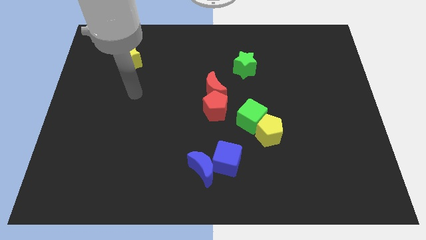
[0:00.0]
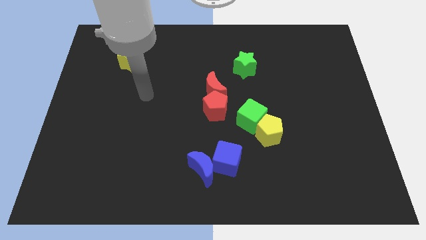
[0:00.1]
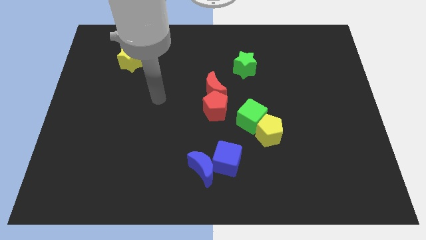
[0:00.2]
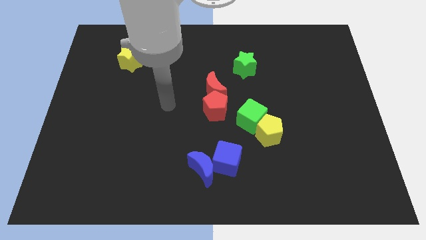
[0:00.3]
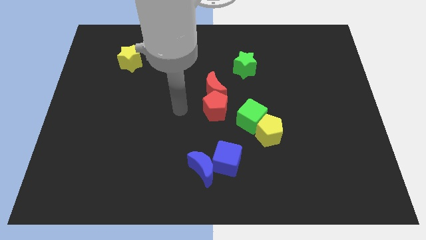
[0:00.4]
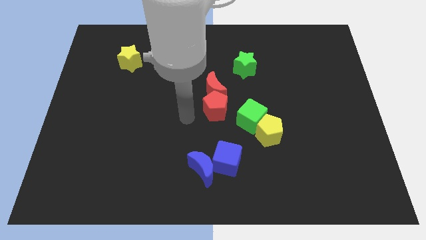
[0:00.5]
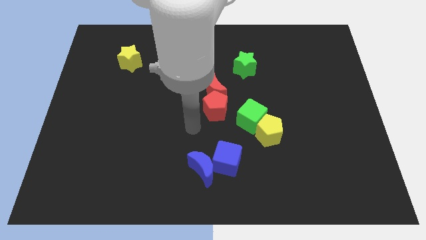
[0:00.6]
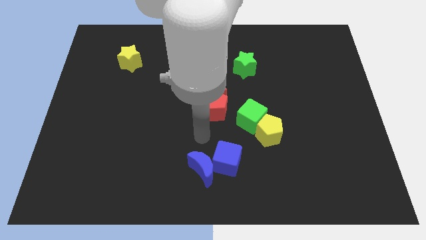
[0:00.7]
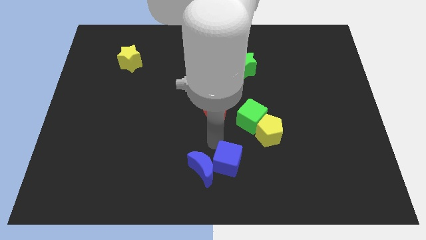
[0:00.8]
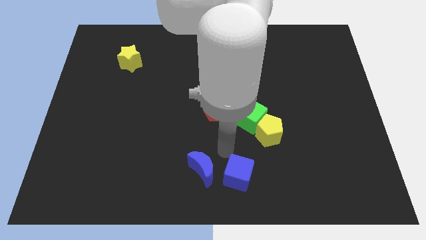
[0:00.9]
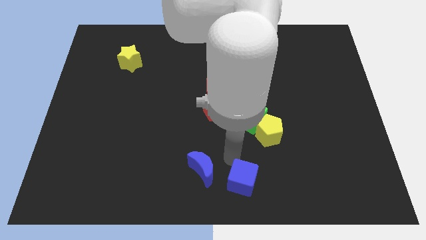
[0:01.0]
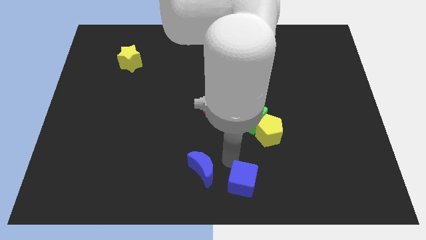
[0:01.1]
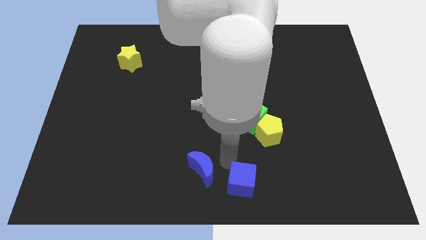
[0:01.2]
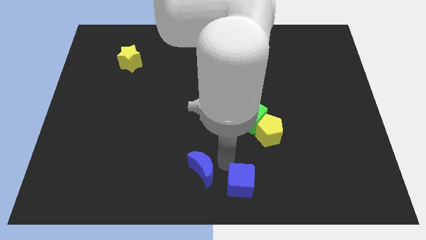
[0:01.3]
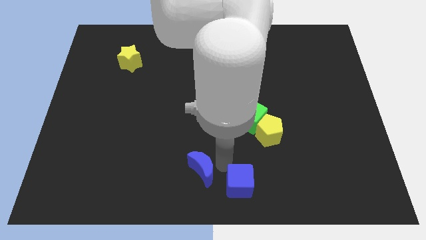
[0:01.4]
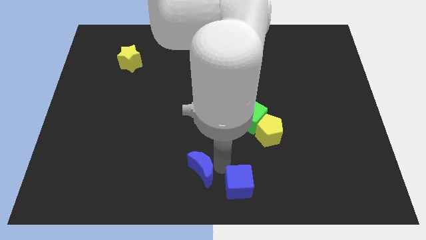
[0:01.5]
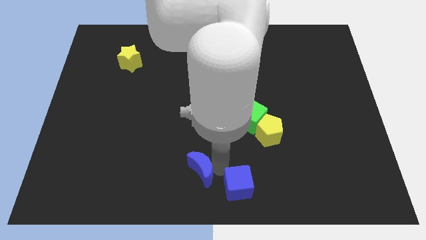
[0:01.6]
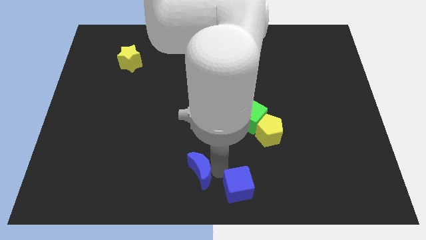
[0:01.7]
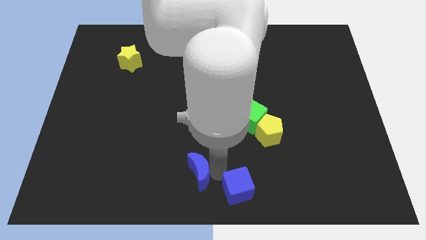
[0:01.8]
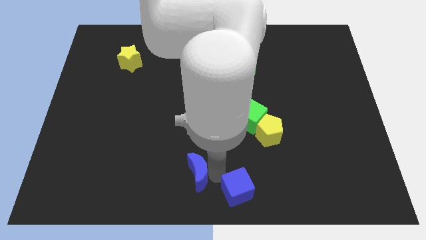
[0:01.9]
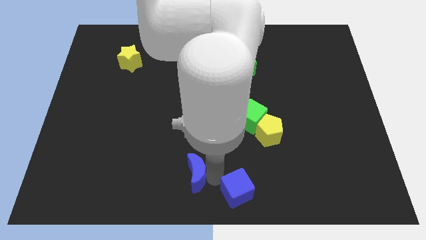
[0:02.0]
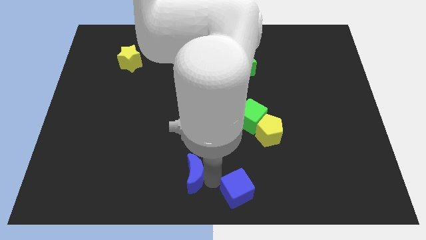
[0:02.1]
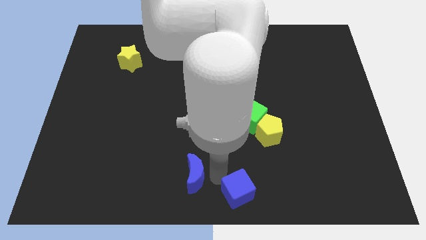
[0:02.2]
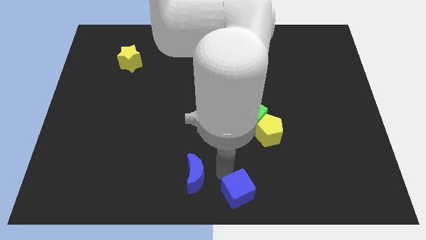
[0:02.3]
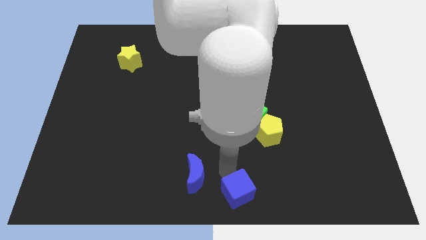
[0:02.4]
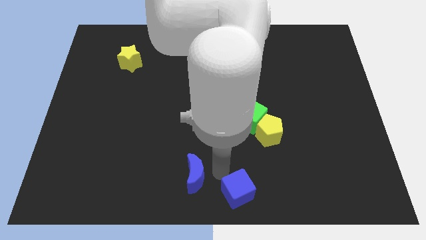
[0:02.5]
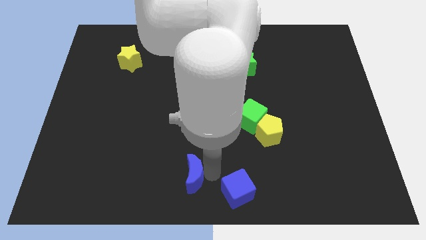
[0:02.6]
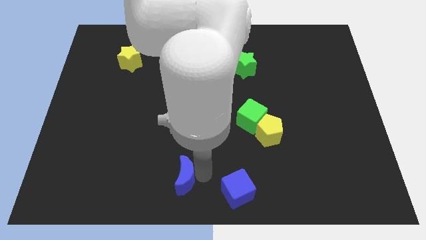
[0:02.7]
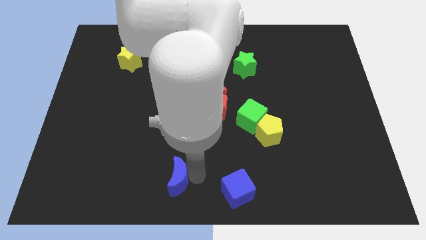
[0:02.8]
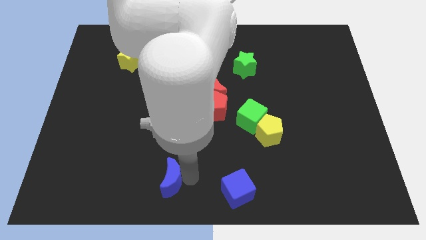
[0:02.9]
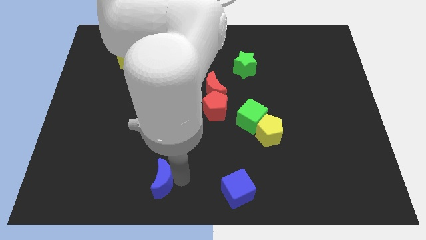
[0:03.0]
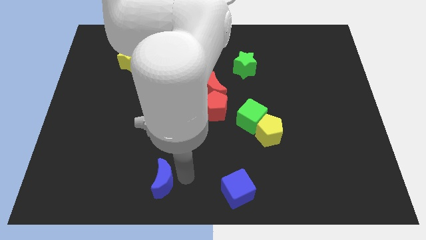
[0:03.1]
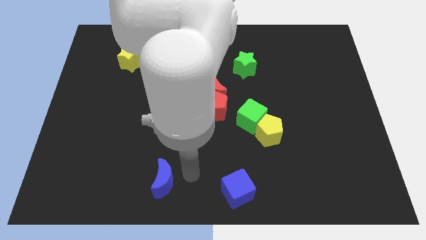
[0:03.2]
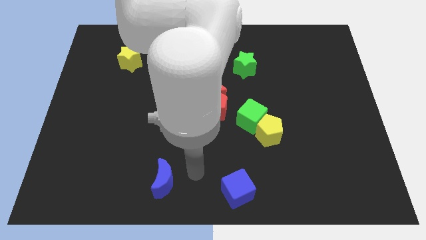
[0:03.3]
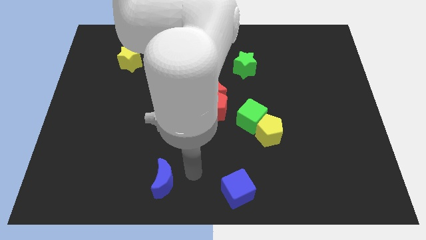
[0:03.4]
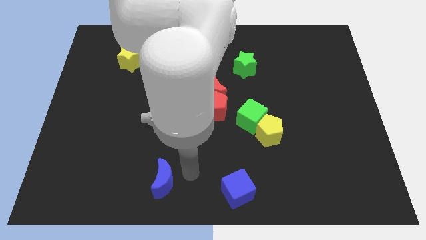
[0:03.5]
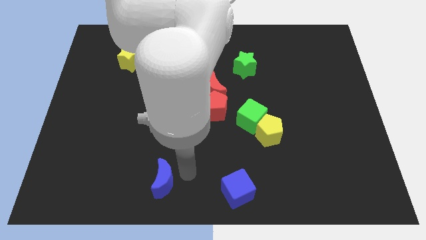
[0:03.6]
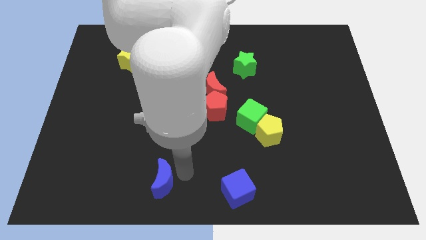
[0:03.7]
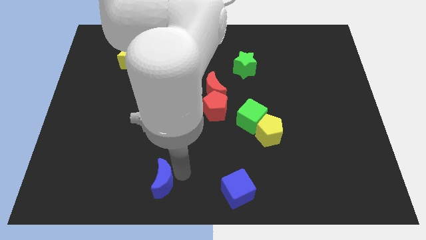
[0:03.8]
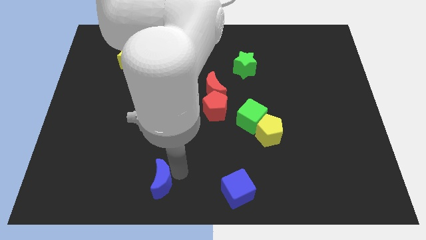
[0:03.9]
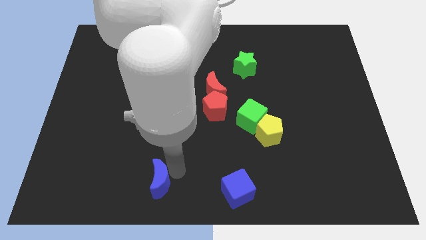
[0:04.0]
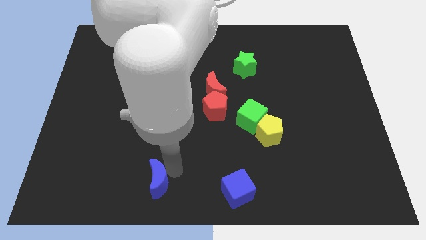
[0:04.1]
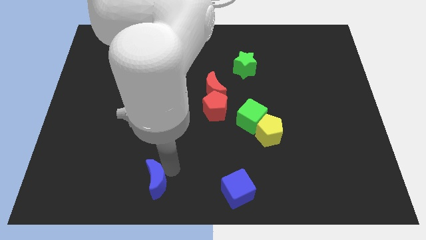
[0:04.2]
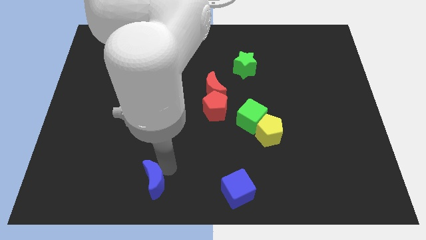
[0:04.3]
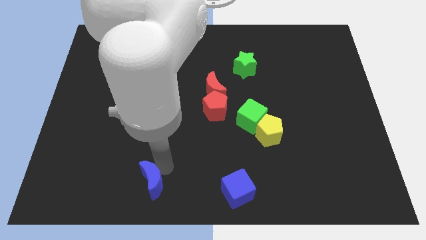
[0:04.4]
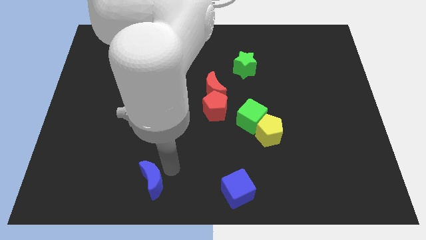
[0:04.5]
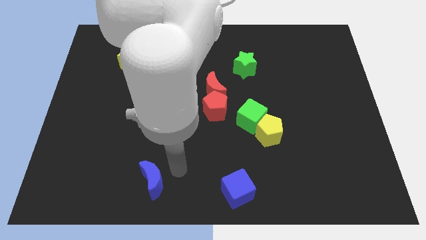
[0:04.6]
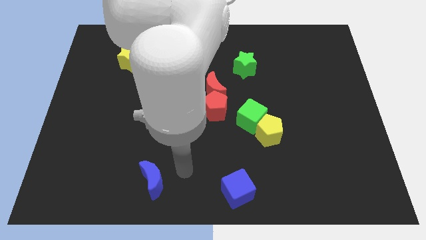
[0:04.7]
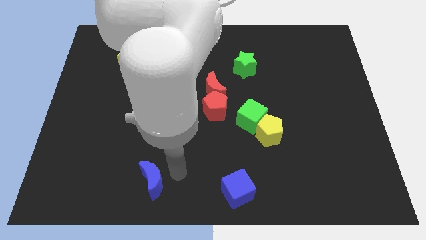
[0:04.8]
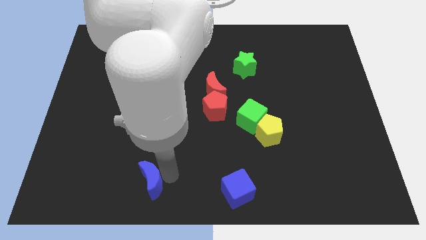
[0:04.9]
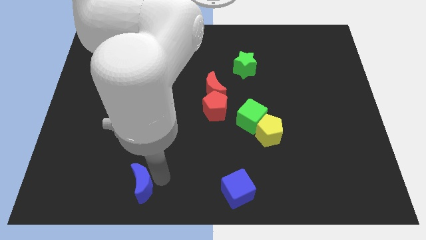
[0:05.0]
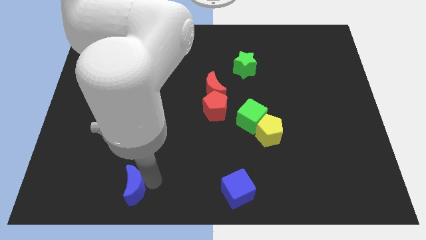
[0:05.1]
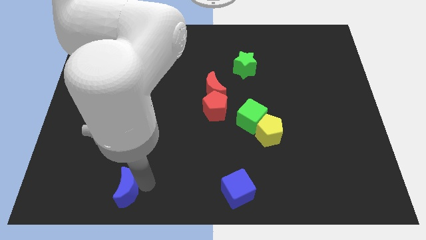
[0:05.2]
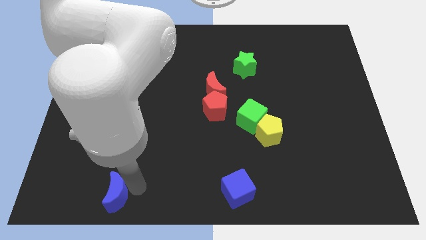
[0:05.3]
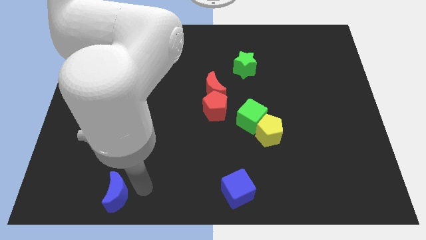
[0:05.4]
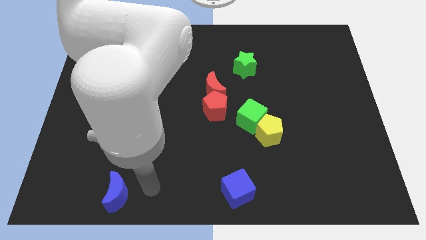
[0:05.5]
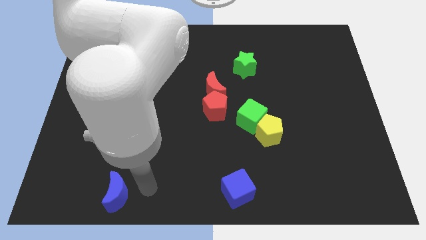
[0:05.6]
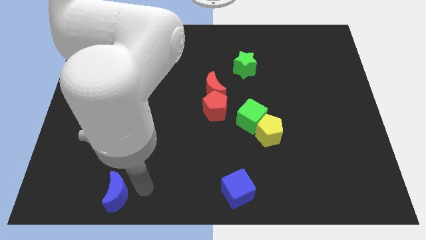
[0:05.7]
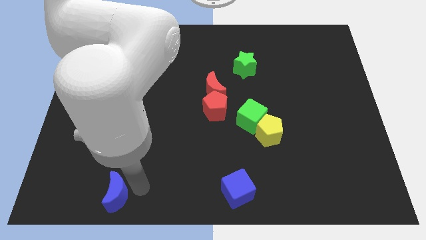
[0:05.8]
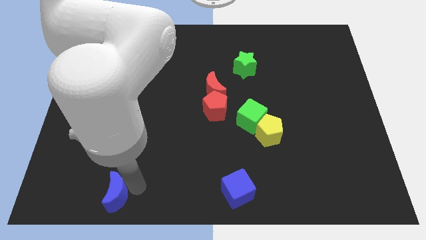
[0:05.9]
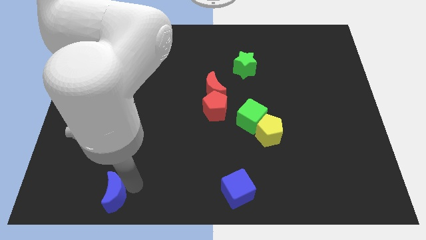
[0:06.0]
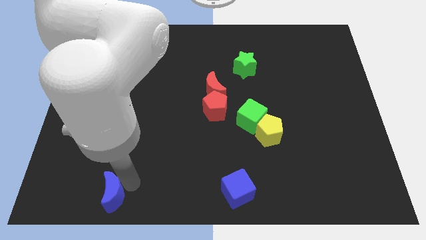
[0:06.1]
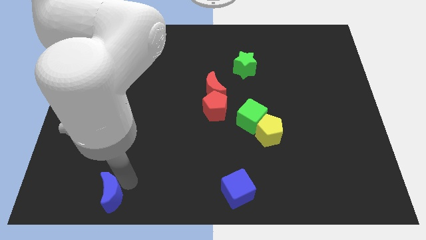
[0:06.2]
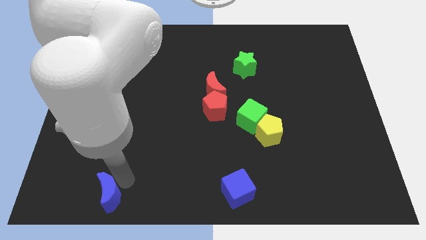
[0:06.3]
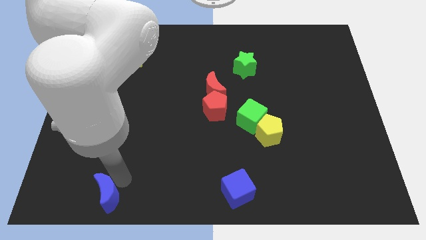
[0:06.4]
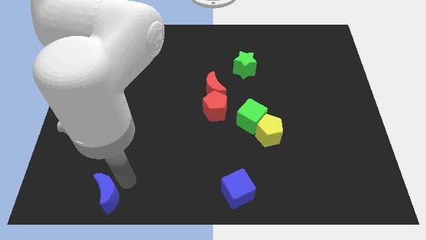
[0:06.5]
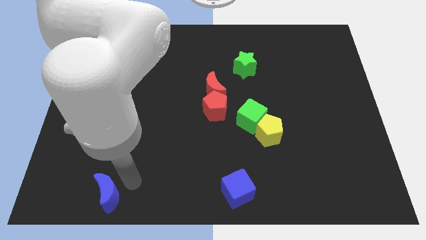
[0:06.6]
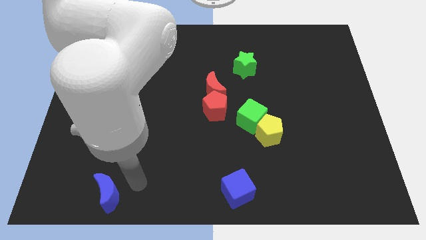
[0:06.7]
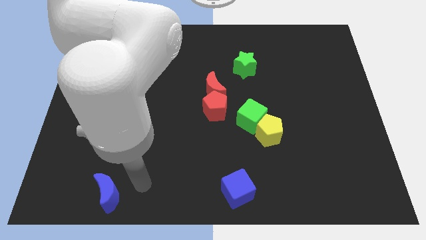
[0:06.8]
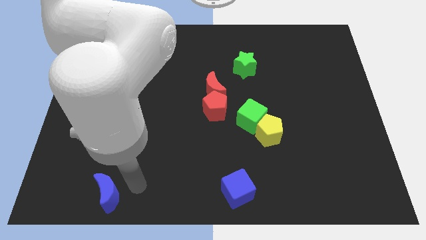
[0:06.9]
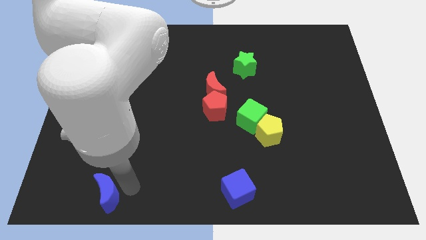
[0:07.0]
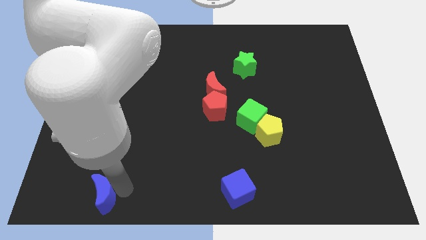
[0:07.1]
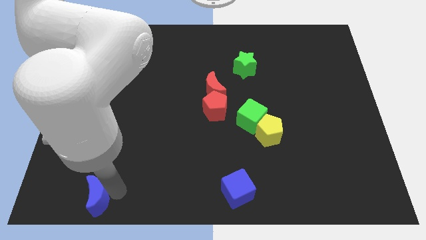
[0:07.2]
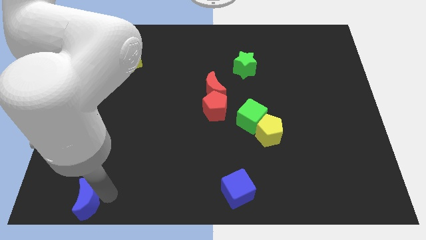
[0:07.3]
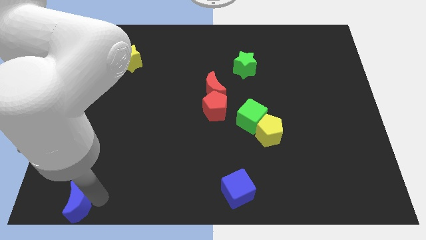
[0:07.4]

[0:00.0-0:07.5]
move the blue moon to the bottom left
